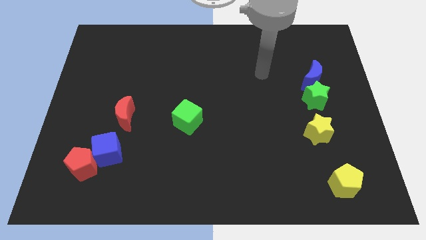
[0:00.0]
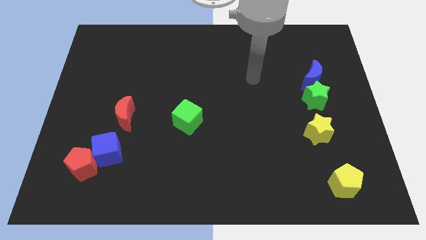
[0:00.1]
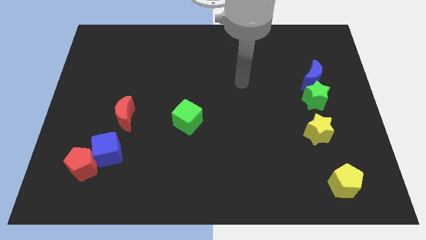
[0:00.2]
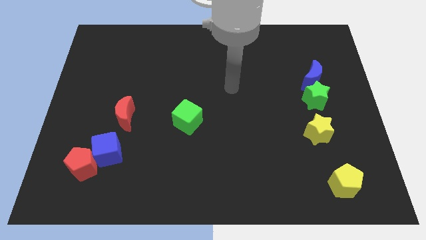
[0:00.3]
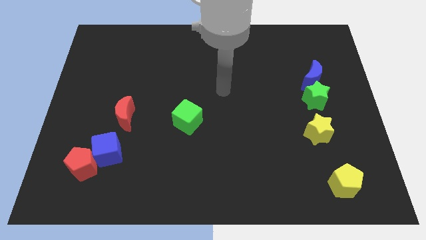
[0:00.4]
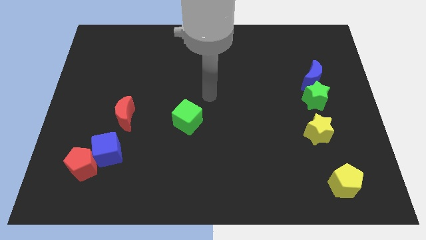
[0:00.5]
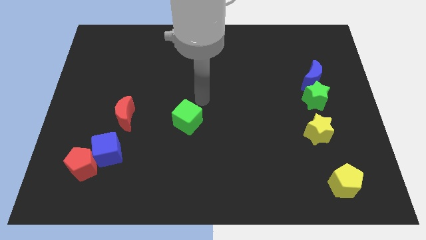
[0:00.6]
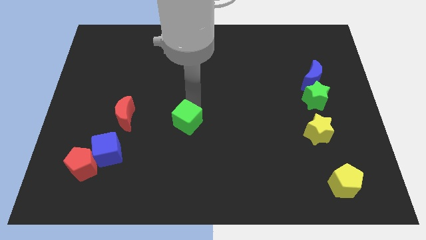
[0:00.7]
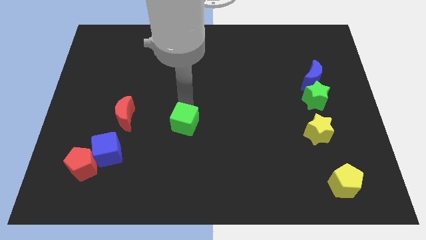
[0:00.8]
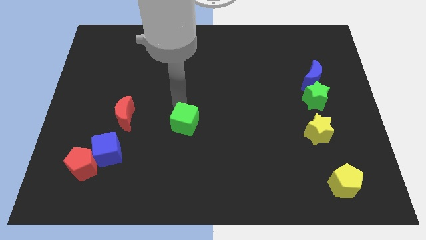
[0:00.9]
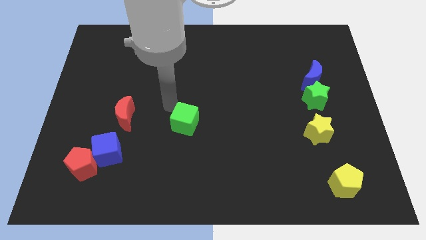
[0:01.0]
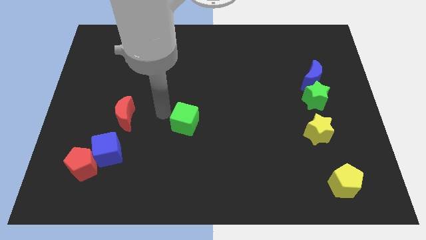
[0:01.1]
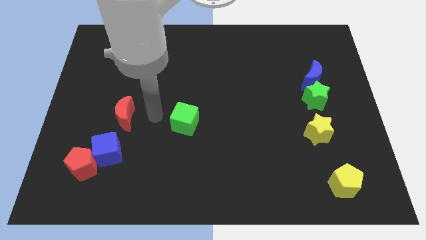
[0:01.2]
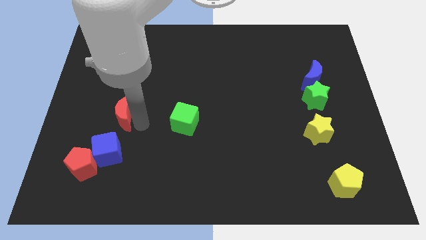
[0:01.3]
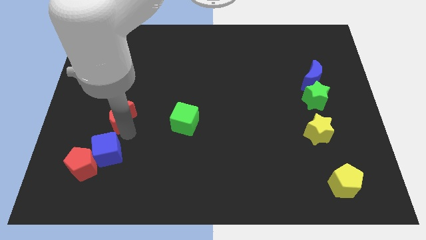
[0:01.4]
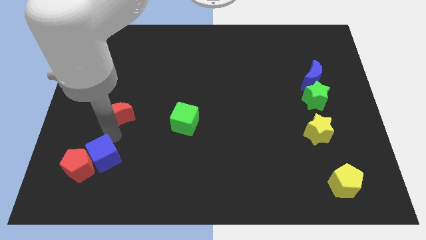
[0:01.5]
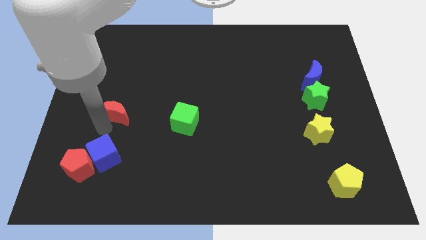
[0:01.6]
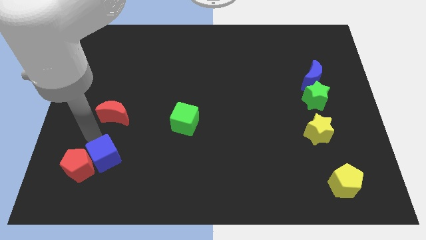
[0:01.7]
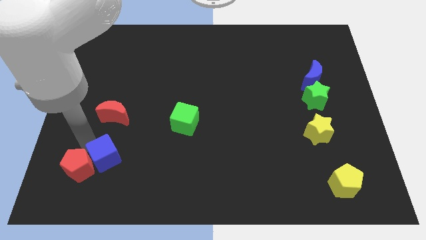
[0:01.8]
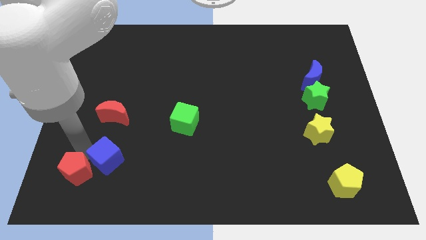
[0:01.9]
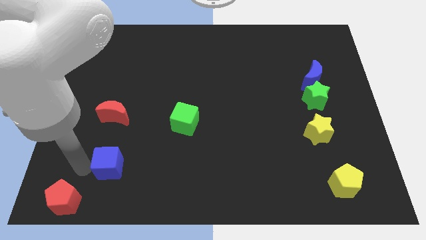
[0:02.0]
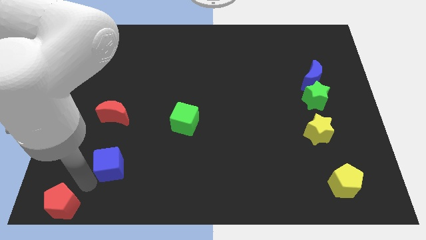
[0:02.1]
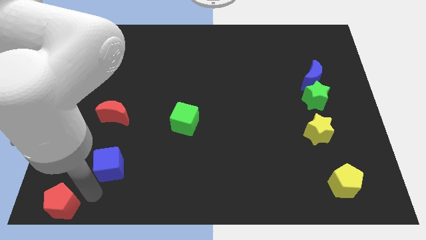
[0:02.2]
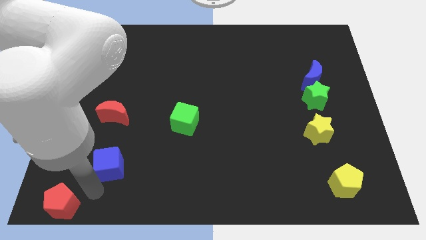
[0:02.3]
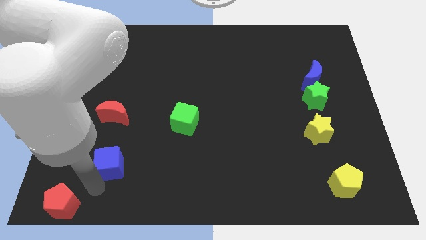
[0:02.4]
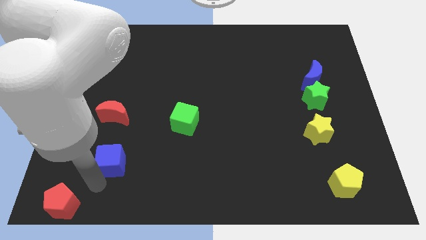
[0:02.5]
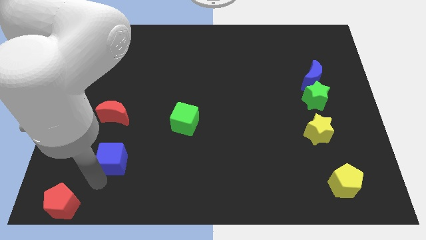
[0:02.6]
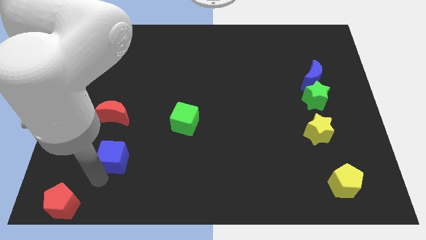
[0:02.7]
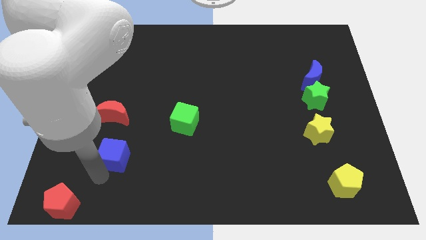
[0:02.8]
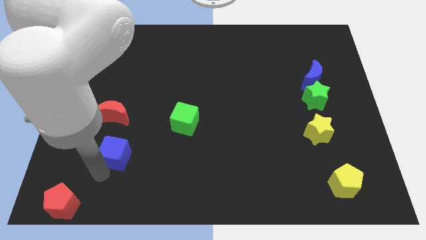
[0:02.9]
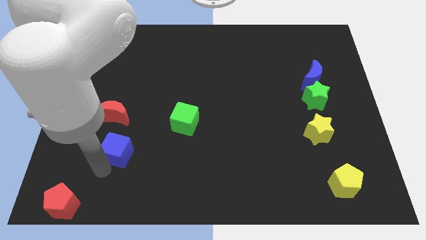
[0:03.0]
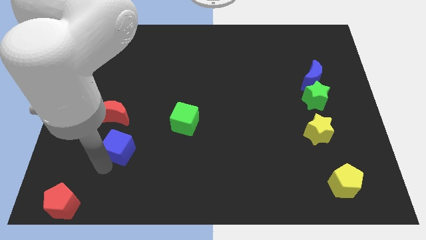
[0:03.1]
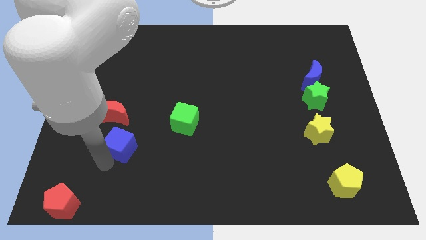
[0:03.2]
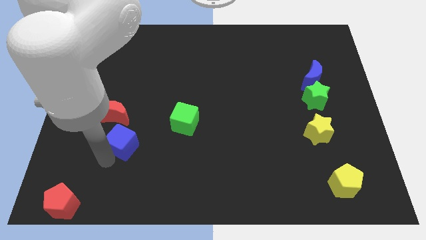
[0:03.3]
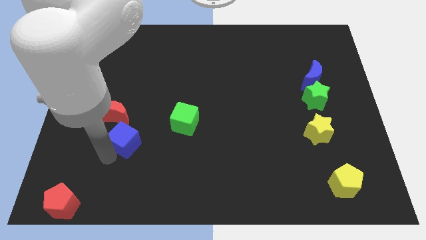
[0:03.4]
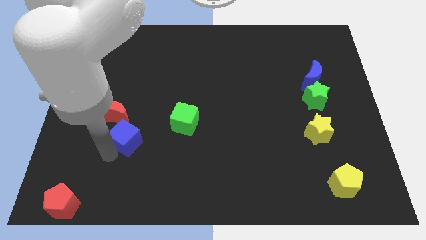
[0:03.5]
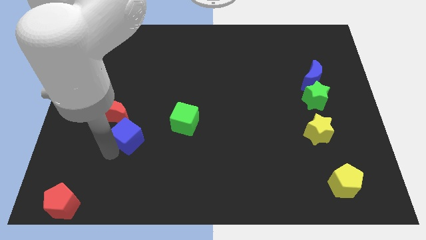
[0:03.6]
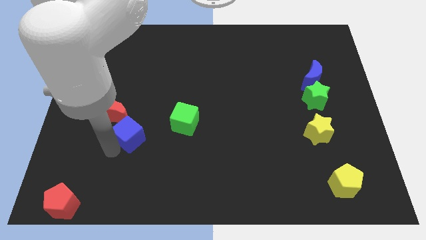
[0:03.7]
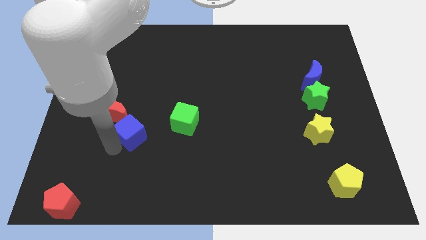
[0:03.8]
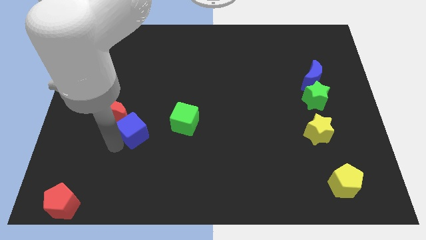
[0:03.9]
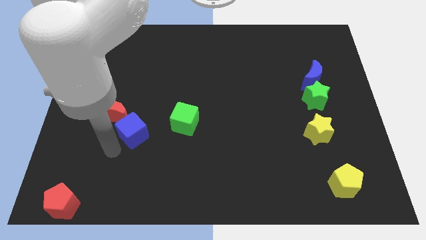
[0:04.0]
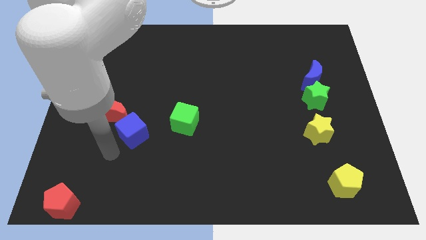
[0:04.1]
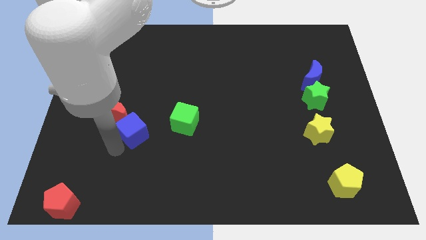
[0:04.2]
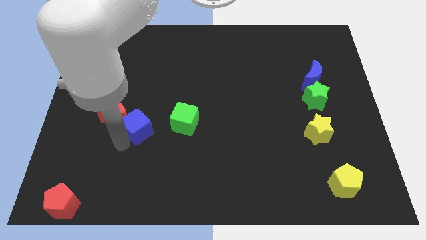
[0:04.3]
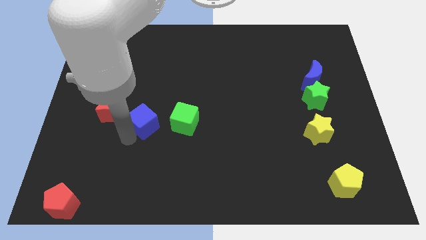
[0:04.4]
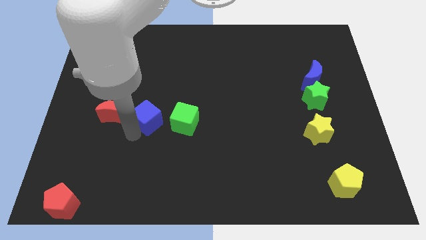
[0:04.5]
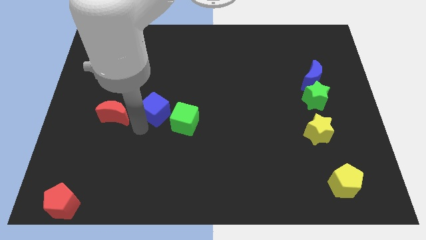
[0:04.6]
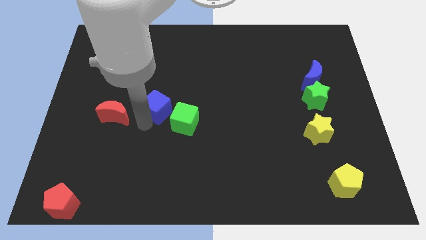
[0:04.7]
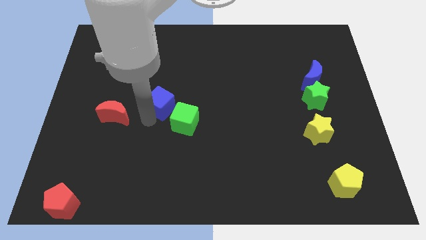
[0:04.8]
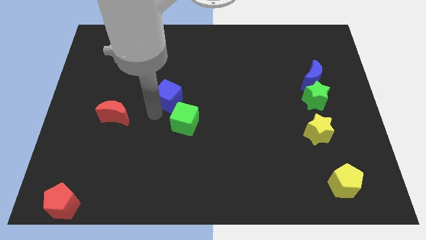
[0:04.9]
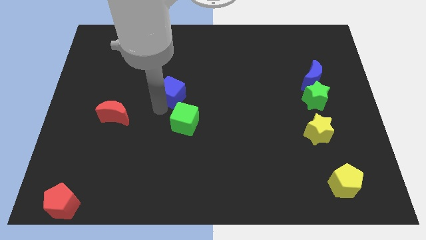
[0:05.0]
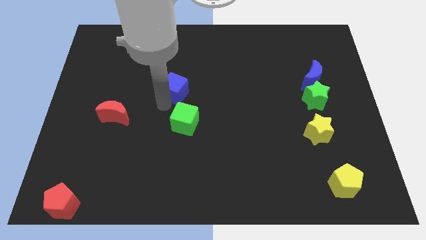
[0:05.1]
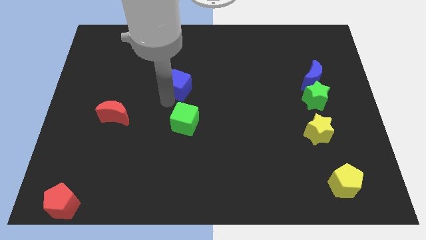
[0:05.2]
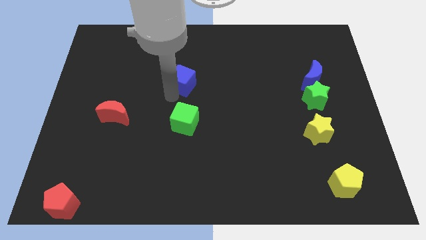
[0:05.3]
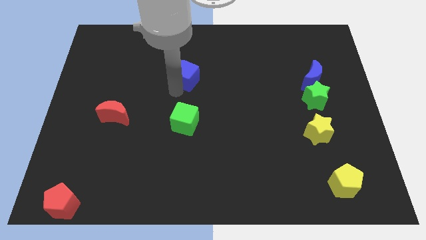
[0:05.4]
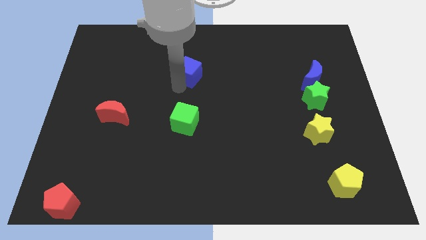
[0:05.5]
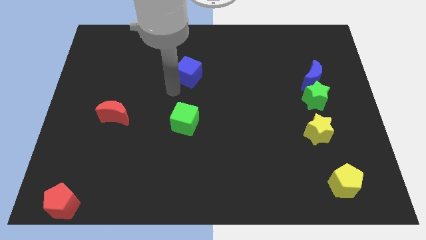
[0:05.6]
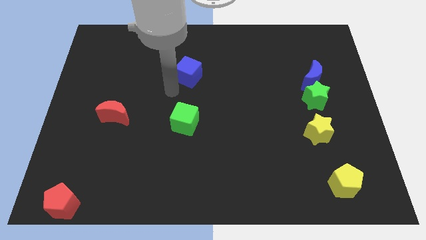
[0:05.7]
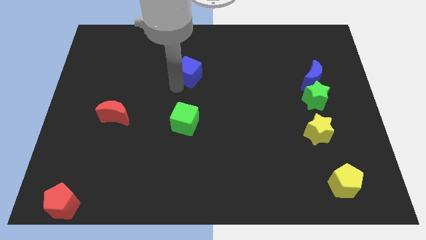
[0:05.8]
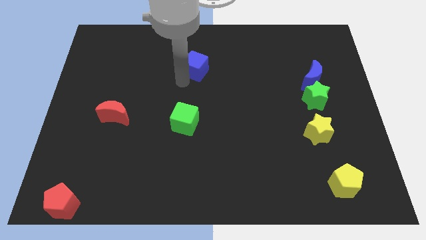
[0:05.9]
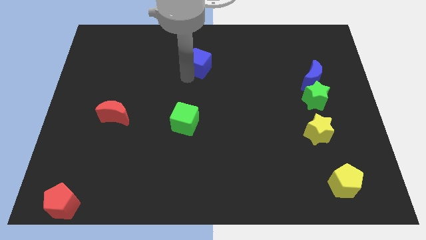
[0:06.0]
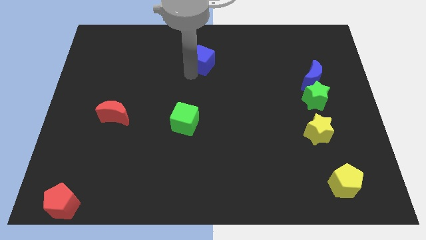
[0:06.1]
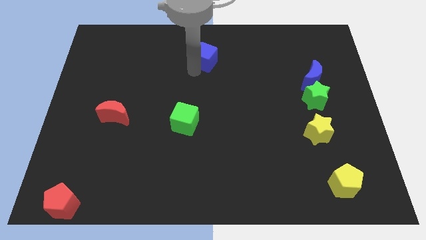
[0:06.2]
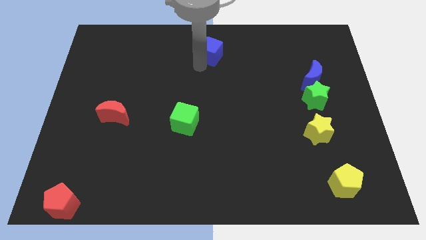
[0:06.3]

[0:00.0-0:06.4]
push the blue cube to the top side

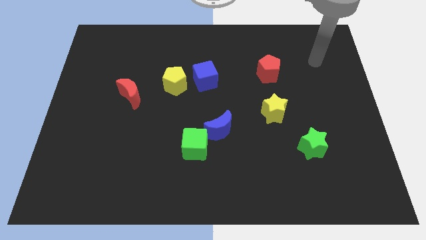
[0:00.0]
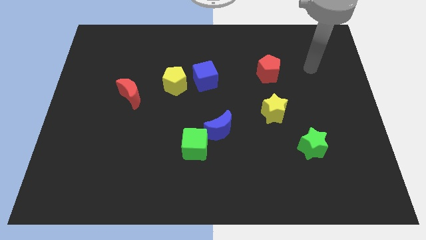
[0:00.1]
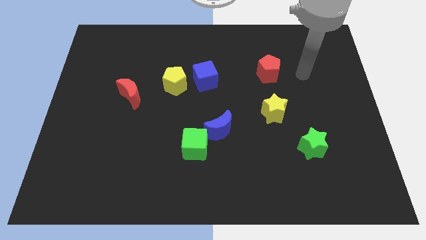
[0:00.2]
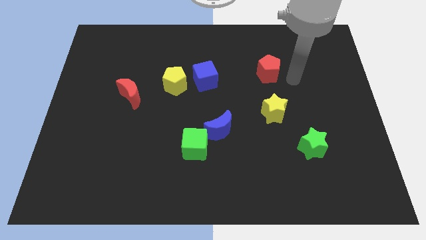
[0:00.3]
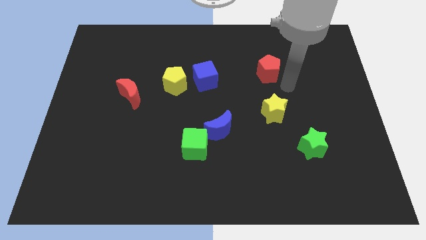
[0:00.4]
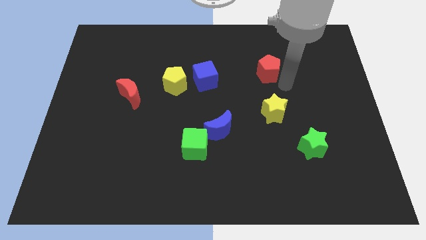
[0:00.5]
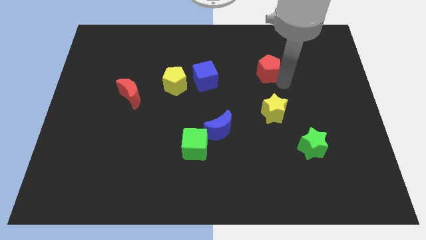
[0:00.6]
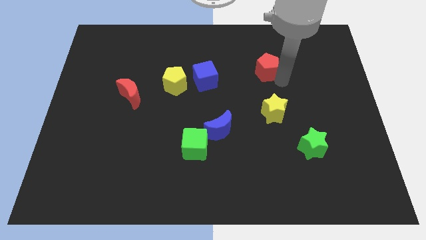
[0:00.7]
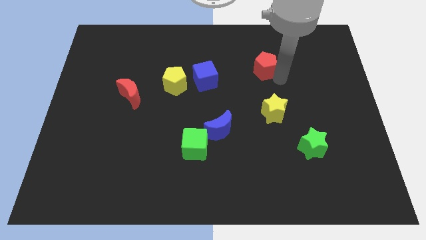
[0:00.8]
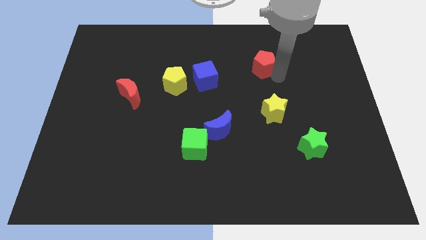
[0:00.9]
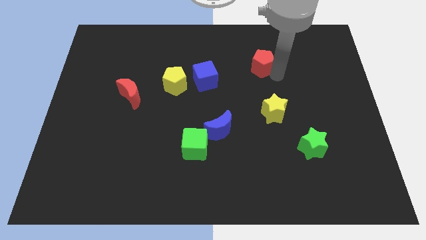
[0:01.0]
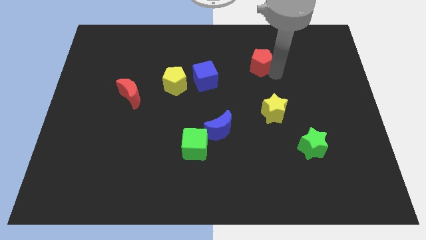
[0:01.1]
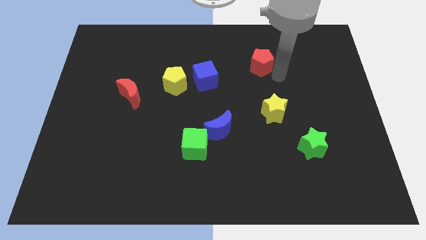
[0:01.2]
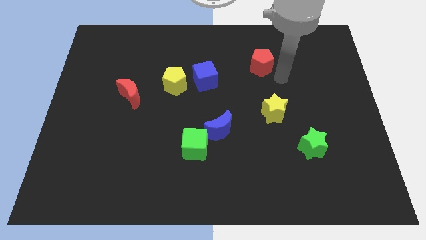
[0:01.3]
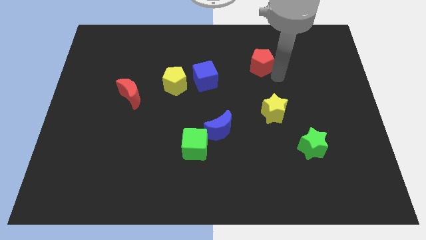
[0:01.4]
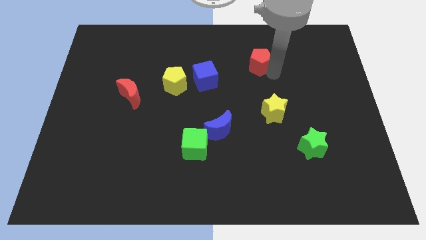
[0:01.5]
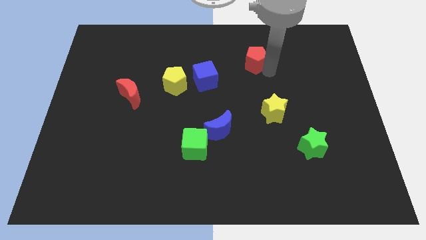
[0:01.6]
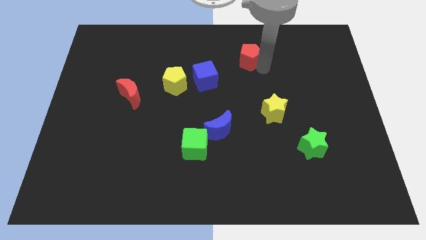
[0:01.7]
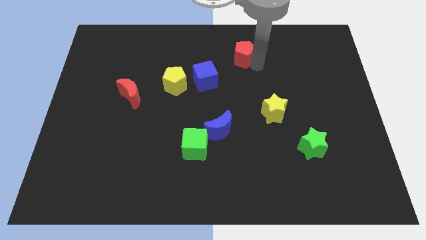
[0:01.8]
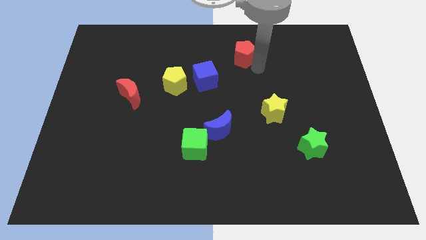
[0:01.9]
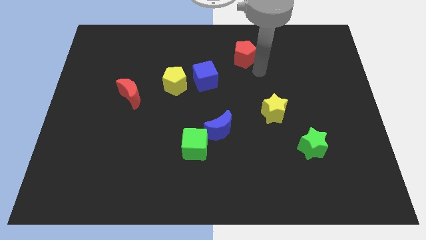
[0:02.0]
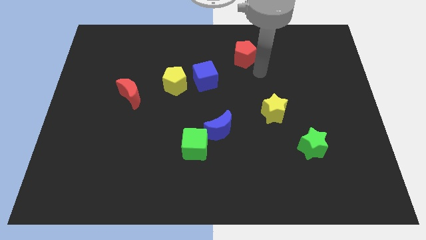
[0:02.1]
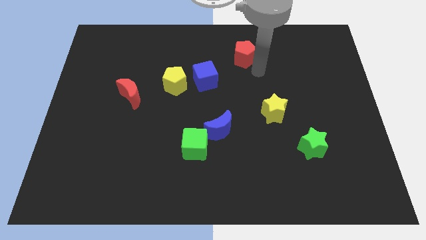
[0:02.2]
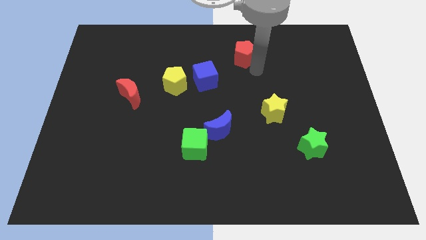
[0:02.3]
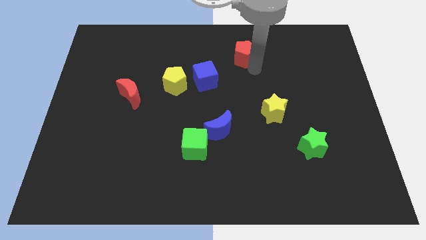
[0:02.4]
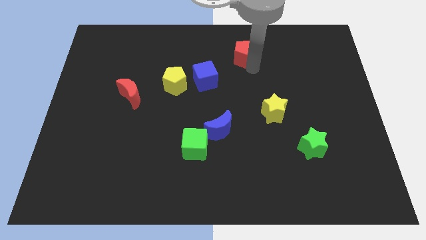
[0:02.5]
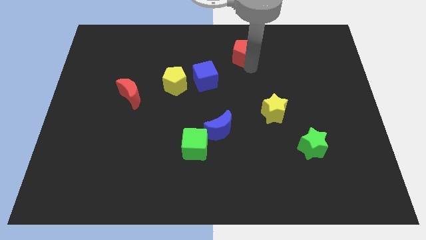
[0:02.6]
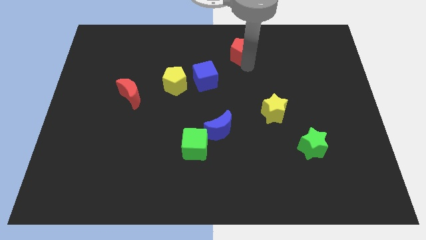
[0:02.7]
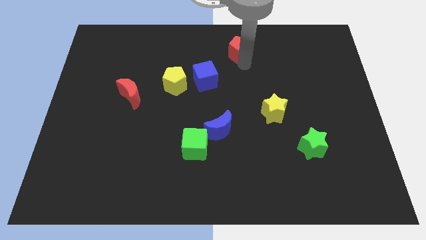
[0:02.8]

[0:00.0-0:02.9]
move the red pentagon to the towards your base
